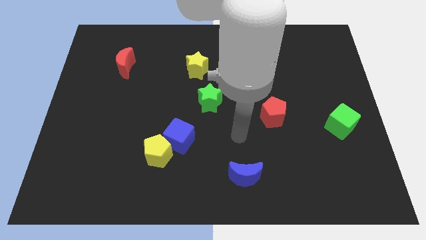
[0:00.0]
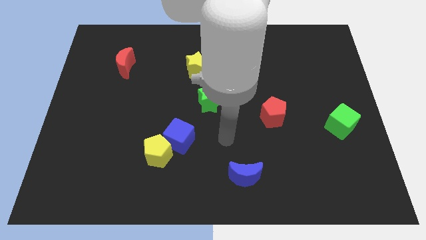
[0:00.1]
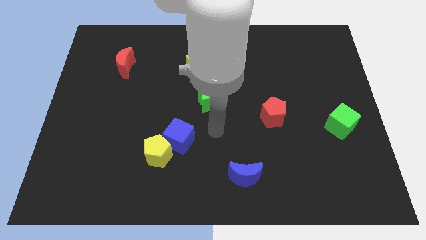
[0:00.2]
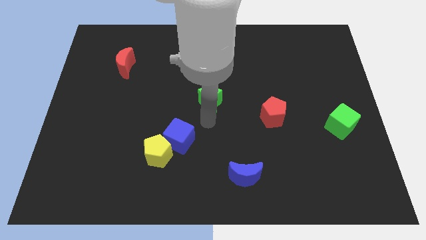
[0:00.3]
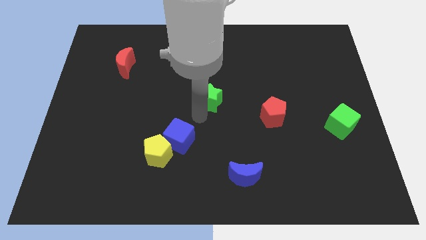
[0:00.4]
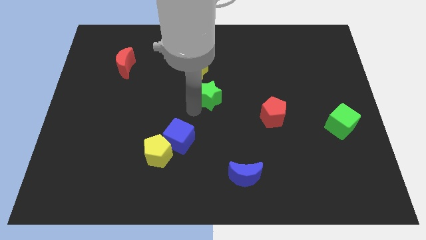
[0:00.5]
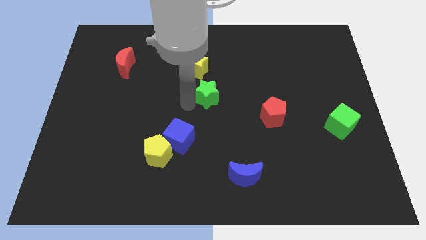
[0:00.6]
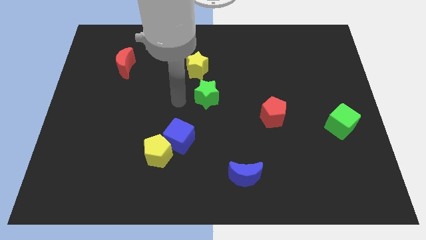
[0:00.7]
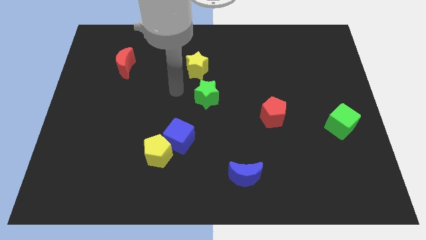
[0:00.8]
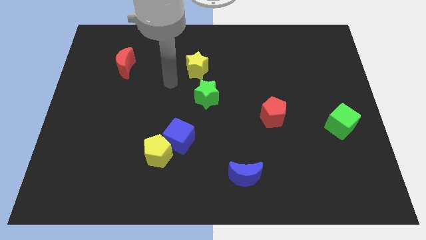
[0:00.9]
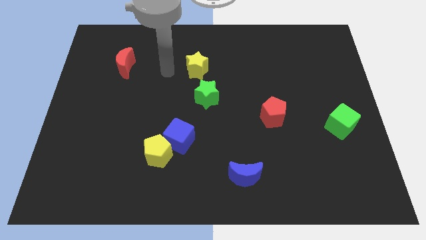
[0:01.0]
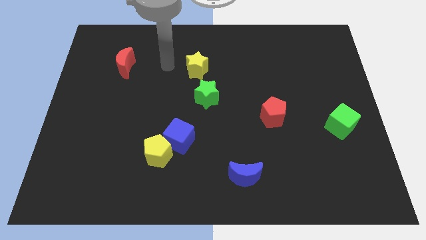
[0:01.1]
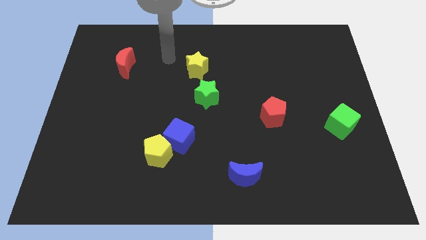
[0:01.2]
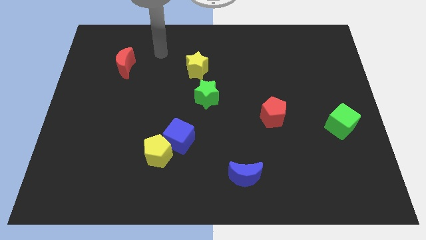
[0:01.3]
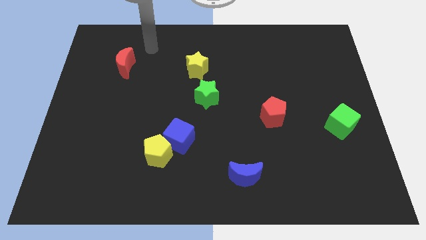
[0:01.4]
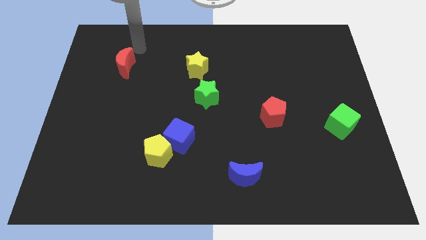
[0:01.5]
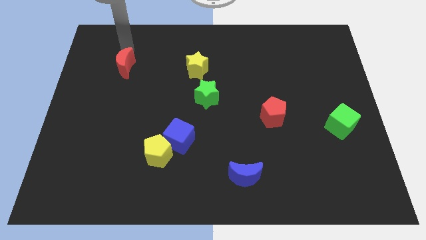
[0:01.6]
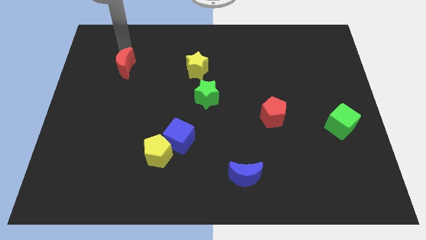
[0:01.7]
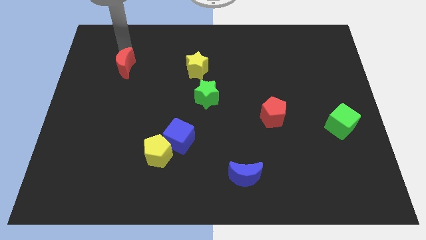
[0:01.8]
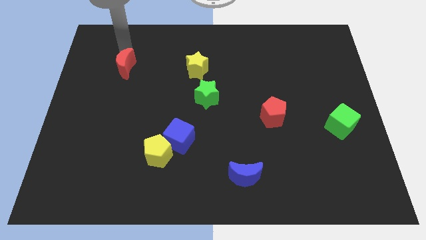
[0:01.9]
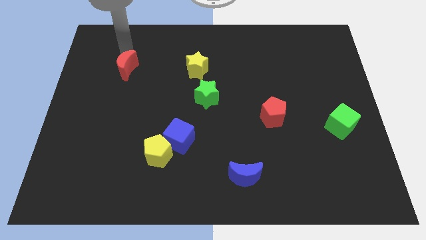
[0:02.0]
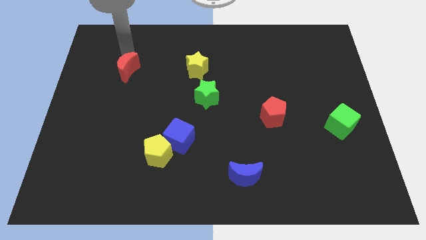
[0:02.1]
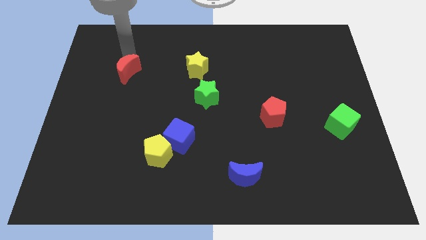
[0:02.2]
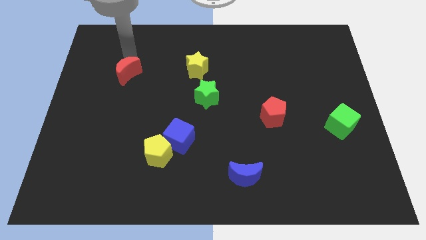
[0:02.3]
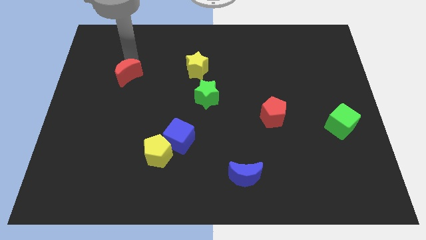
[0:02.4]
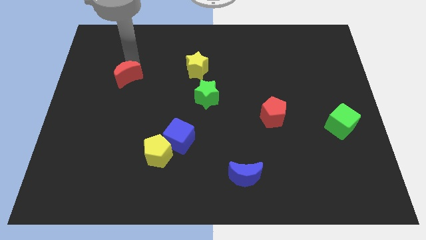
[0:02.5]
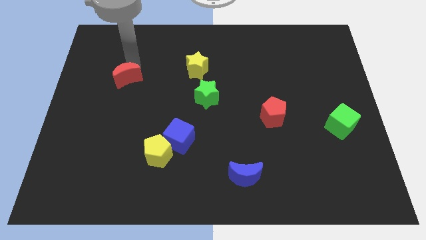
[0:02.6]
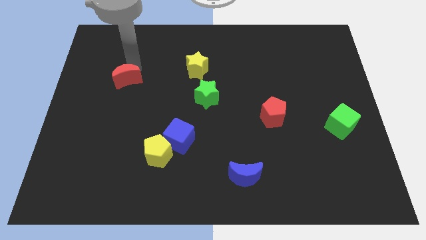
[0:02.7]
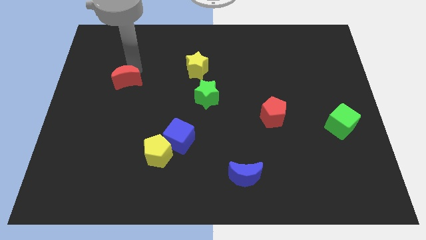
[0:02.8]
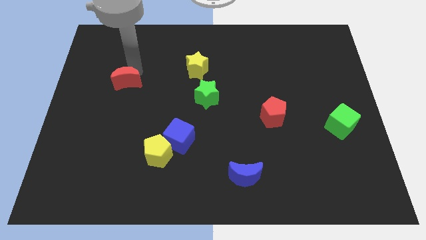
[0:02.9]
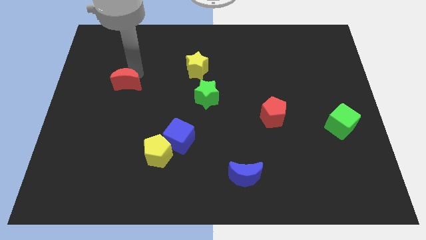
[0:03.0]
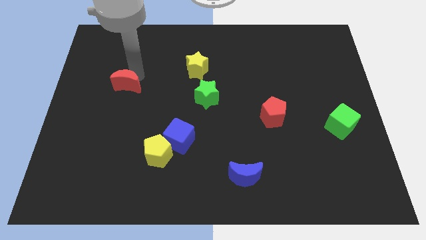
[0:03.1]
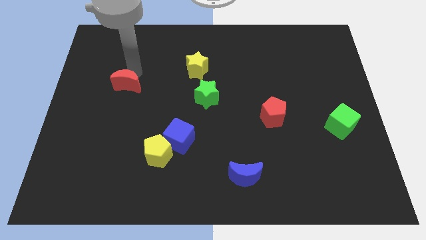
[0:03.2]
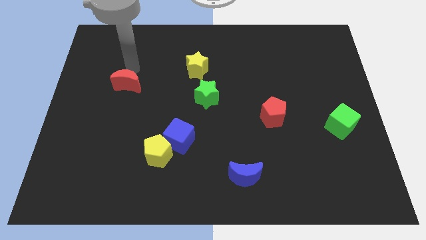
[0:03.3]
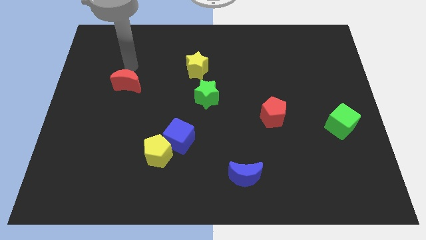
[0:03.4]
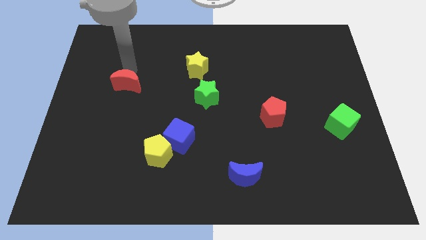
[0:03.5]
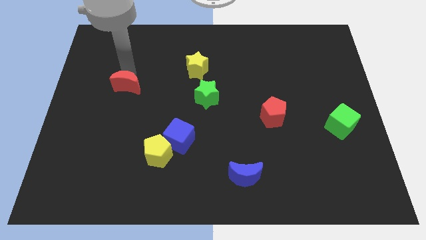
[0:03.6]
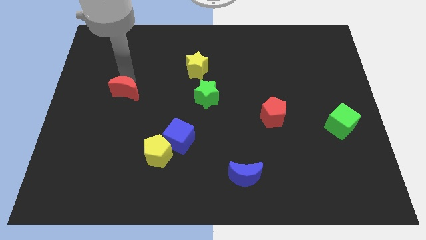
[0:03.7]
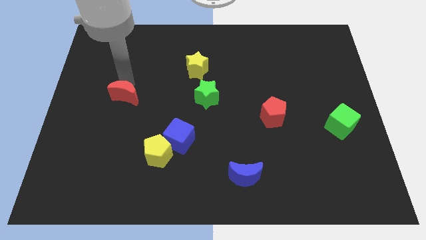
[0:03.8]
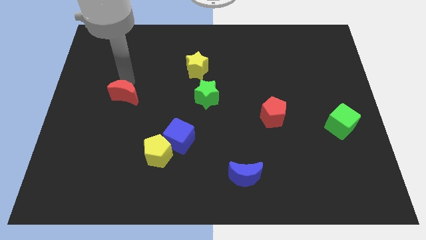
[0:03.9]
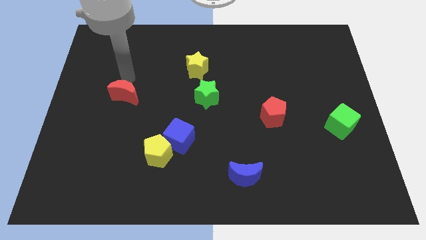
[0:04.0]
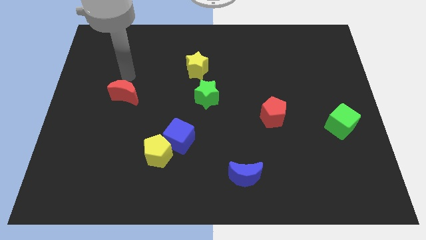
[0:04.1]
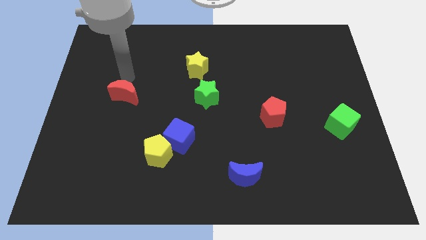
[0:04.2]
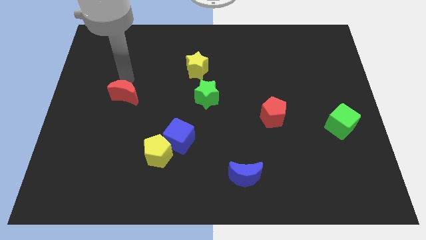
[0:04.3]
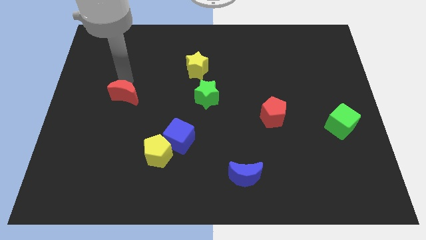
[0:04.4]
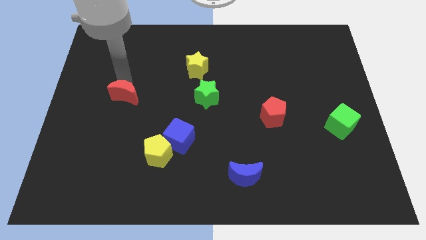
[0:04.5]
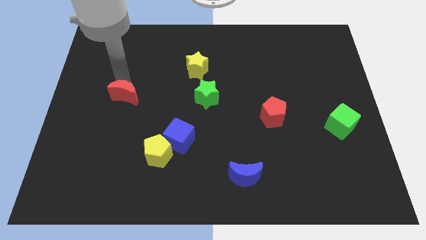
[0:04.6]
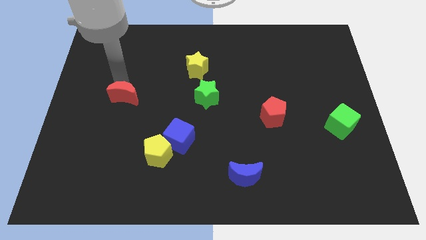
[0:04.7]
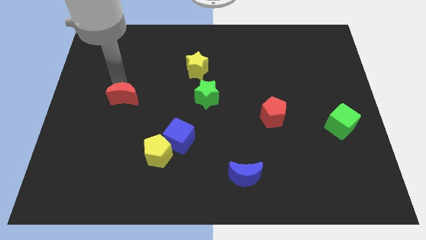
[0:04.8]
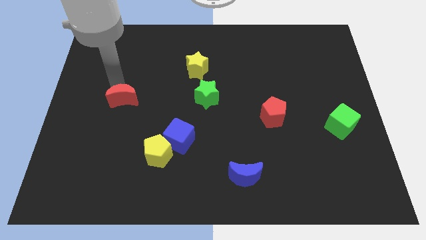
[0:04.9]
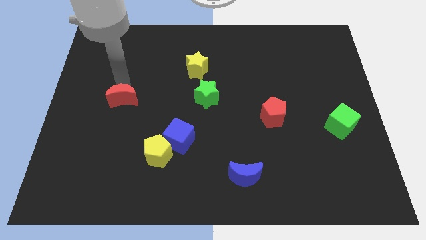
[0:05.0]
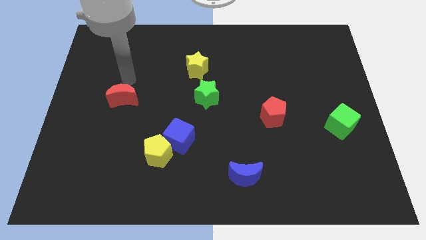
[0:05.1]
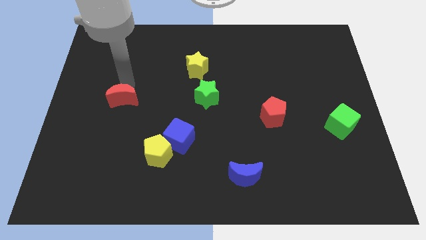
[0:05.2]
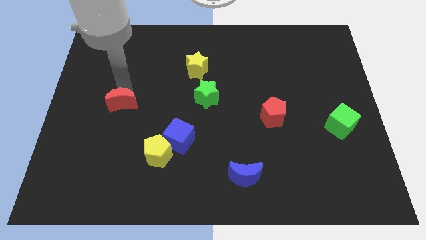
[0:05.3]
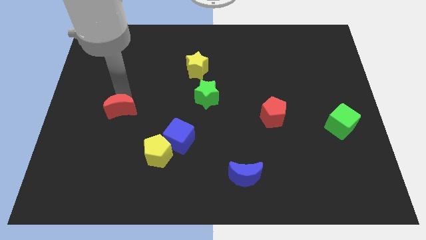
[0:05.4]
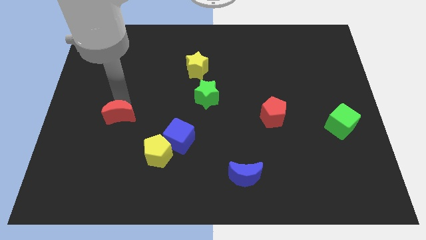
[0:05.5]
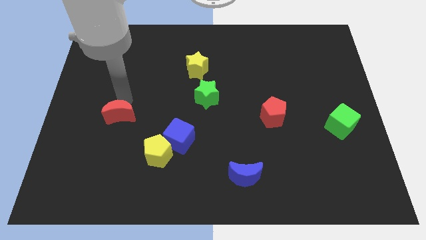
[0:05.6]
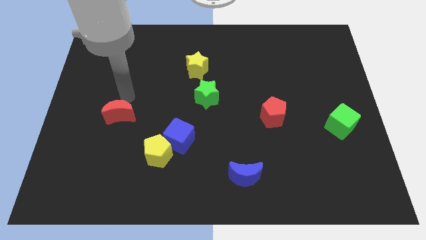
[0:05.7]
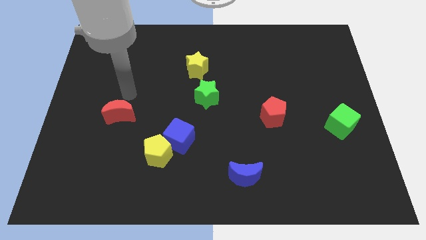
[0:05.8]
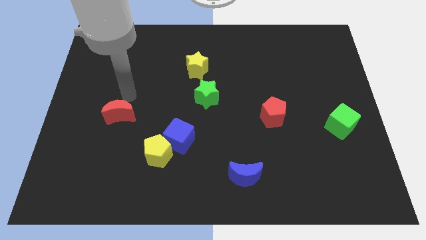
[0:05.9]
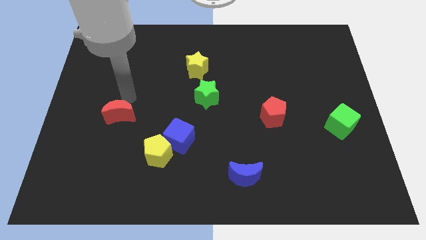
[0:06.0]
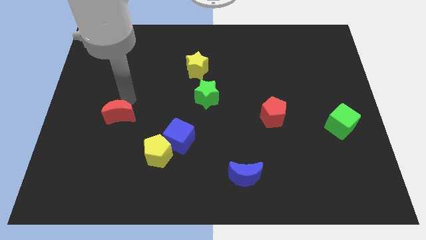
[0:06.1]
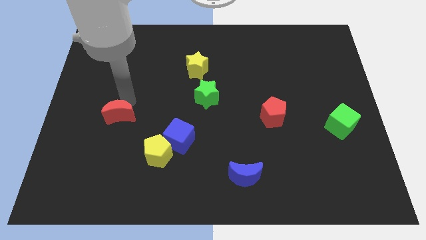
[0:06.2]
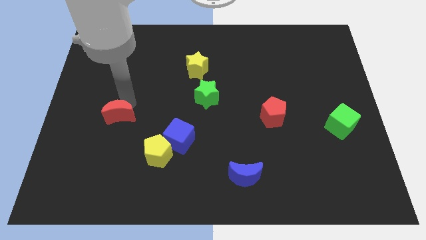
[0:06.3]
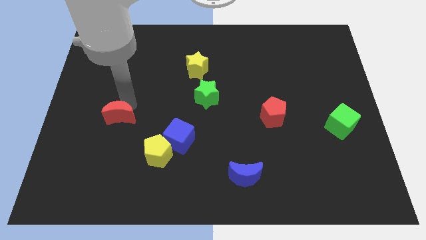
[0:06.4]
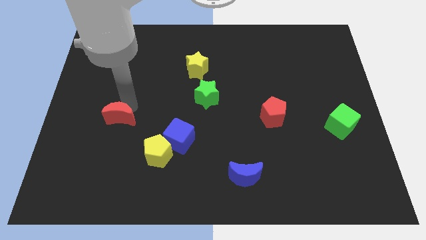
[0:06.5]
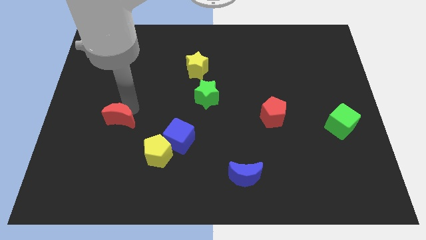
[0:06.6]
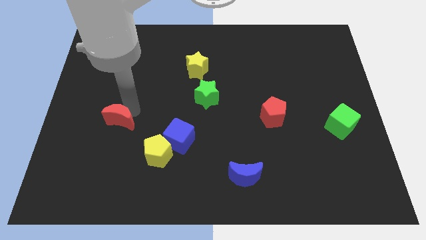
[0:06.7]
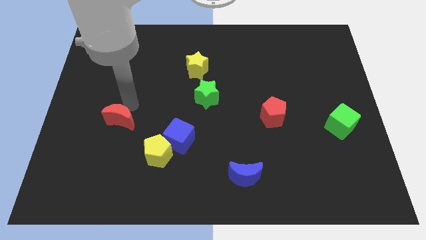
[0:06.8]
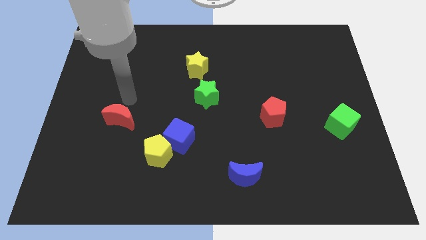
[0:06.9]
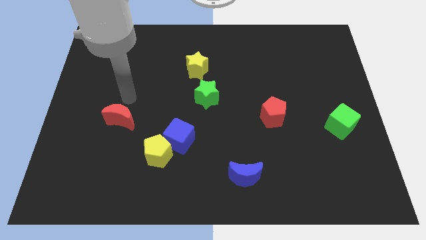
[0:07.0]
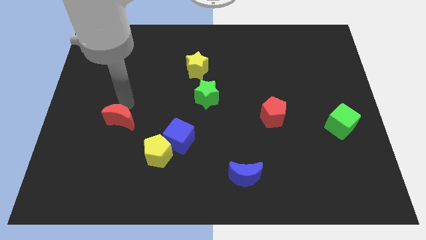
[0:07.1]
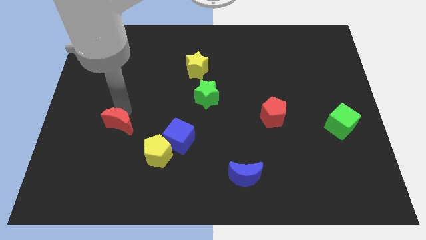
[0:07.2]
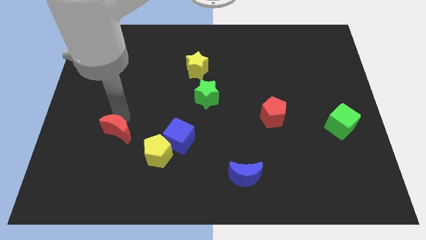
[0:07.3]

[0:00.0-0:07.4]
slide the red moon down

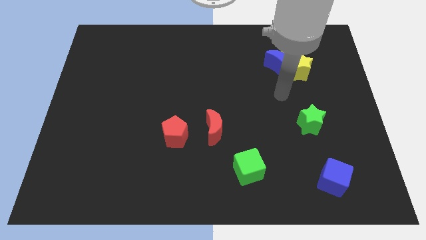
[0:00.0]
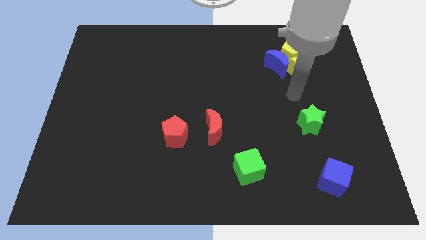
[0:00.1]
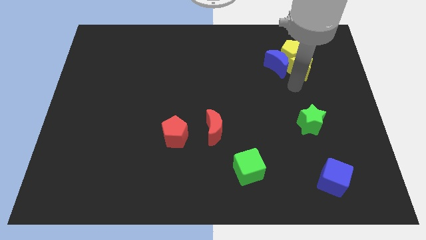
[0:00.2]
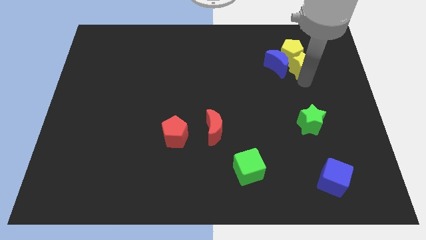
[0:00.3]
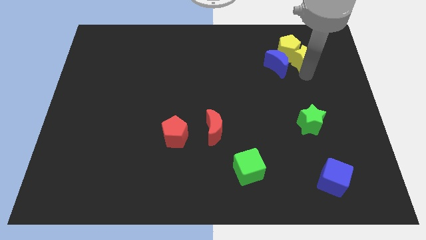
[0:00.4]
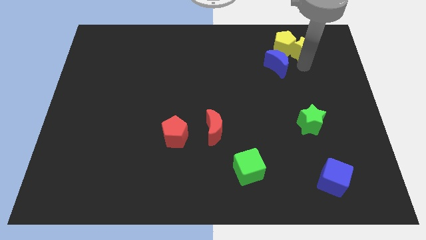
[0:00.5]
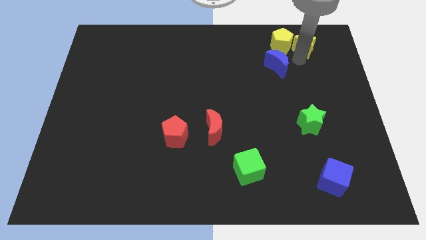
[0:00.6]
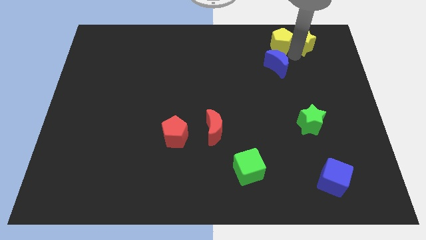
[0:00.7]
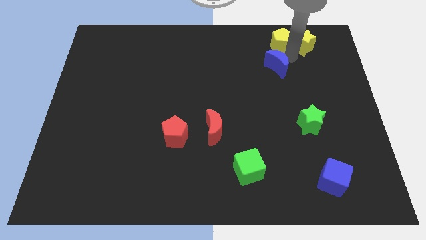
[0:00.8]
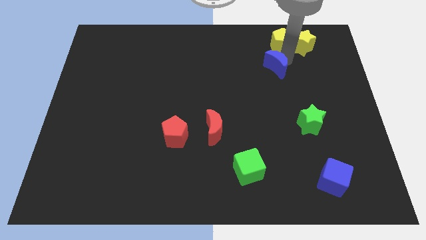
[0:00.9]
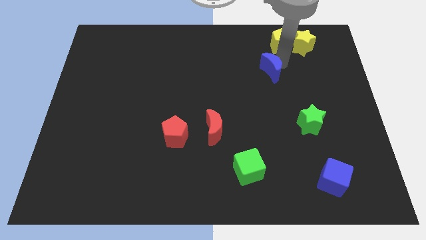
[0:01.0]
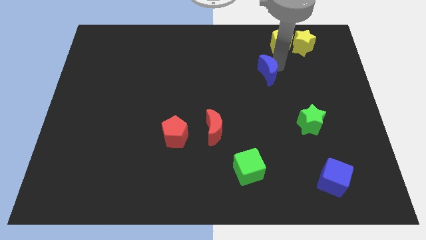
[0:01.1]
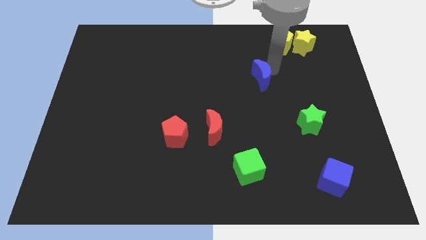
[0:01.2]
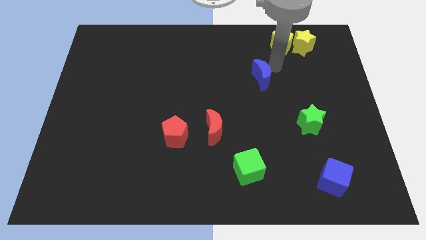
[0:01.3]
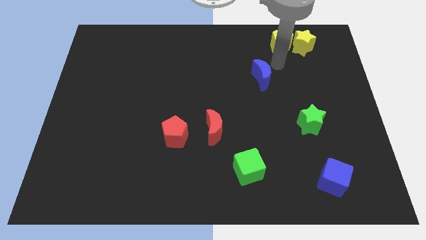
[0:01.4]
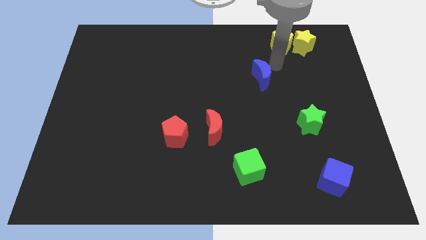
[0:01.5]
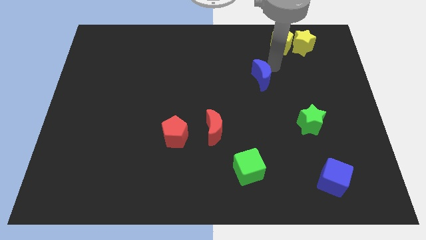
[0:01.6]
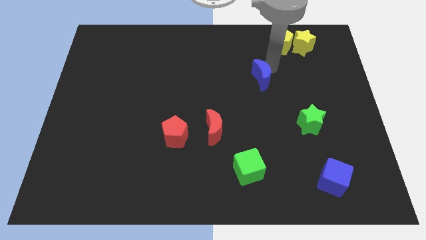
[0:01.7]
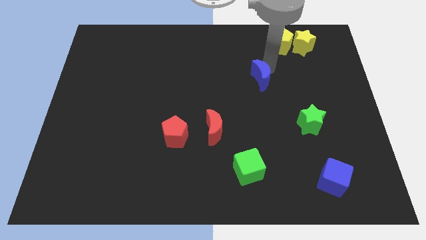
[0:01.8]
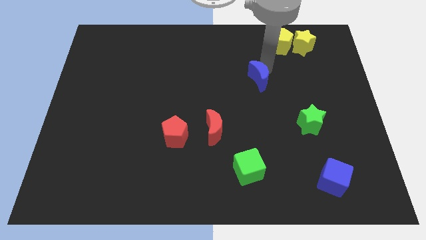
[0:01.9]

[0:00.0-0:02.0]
push the blue moon down and left slightly
